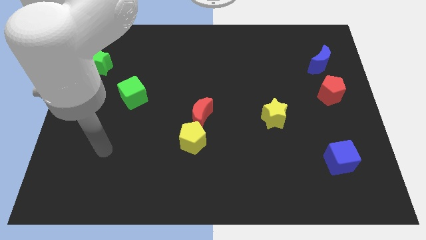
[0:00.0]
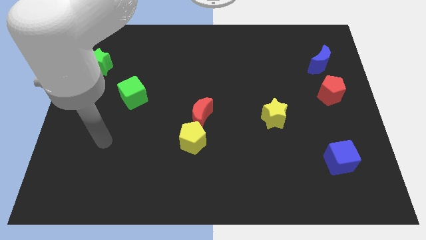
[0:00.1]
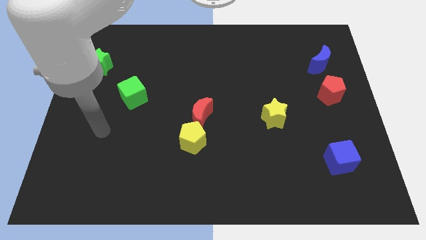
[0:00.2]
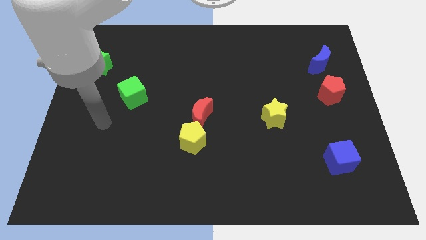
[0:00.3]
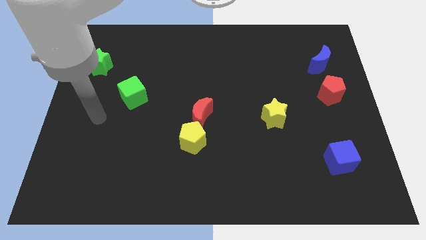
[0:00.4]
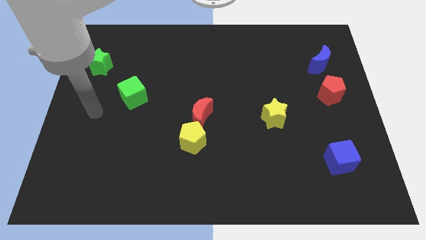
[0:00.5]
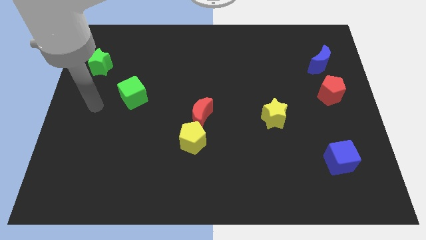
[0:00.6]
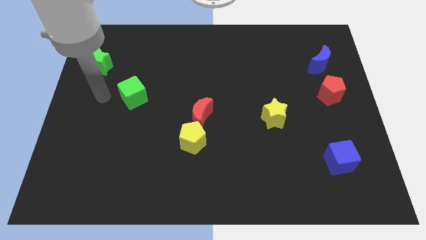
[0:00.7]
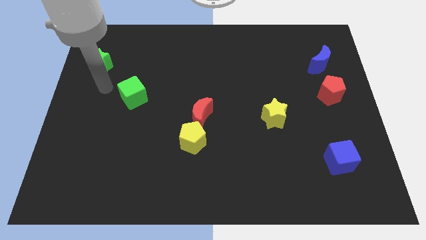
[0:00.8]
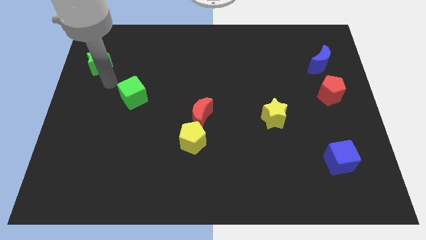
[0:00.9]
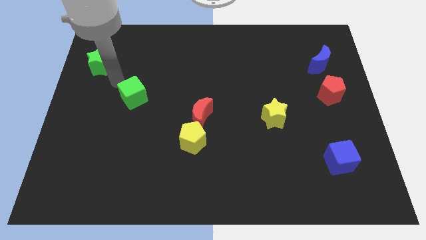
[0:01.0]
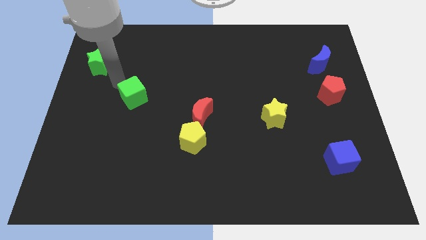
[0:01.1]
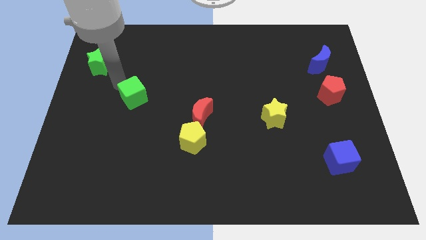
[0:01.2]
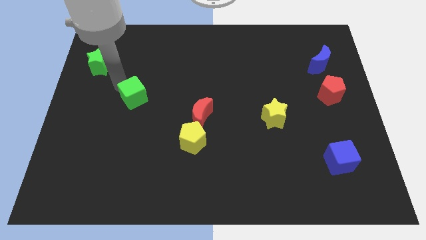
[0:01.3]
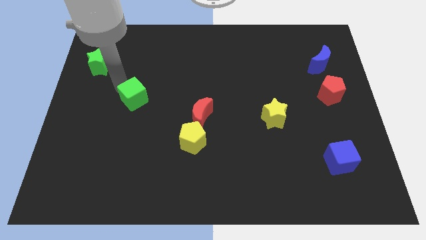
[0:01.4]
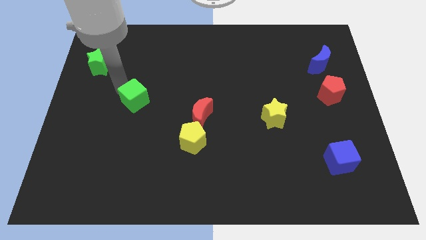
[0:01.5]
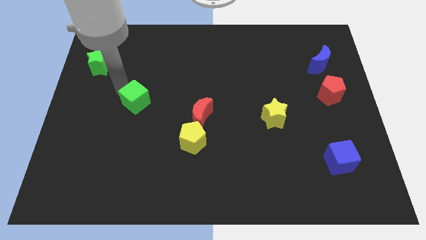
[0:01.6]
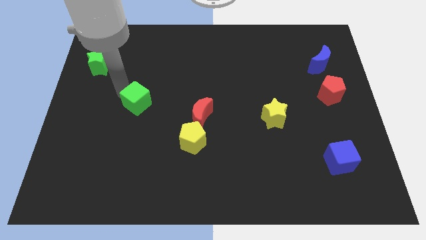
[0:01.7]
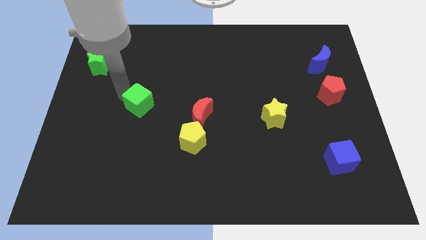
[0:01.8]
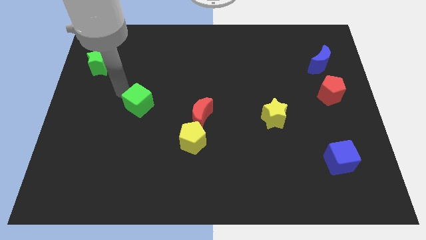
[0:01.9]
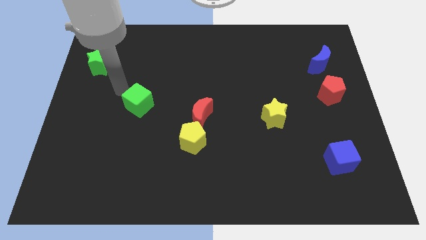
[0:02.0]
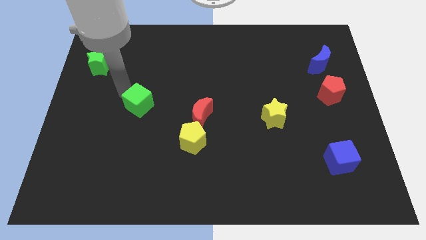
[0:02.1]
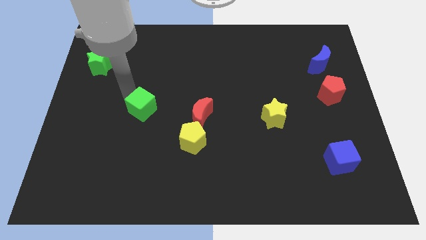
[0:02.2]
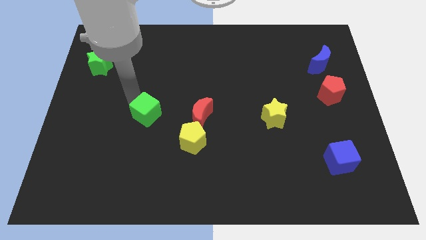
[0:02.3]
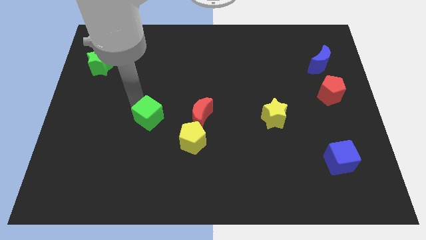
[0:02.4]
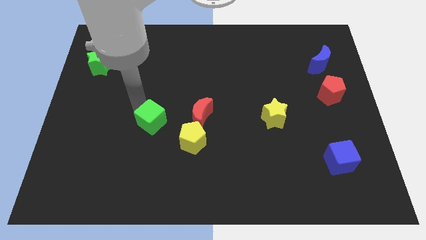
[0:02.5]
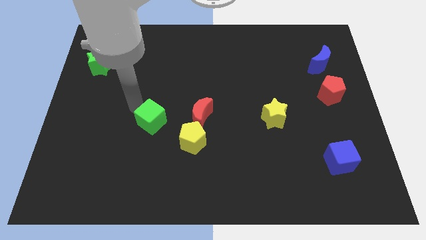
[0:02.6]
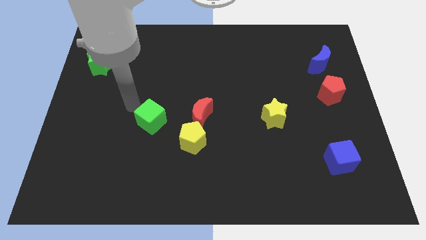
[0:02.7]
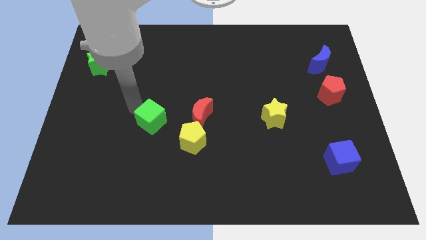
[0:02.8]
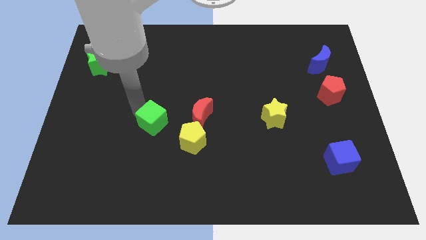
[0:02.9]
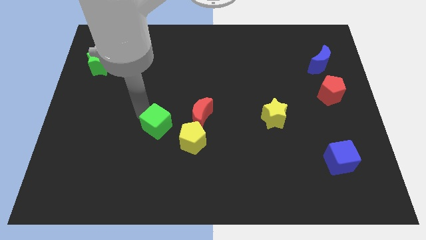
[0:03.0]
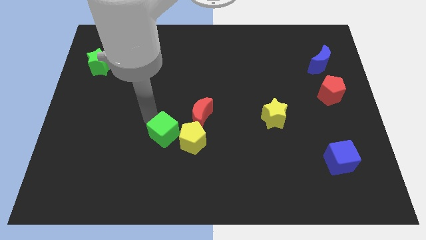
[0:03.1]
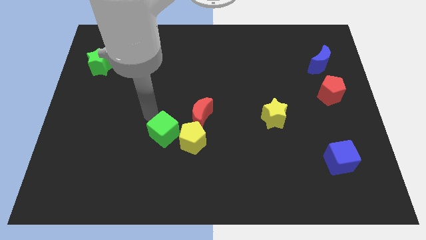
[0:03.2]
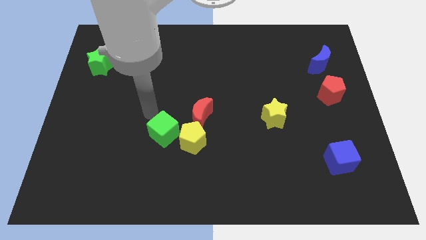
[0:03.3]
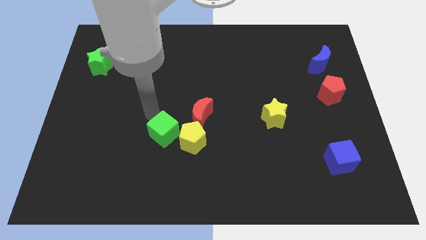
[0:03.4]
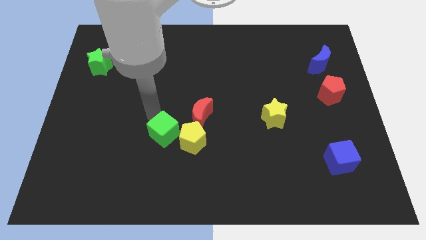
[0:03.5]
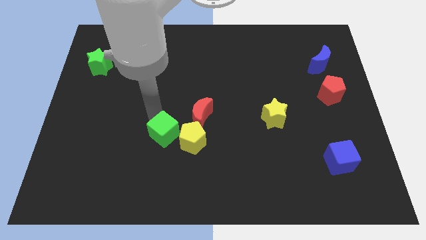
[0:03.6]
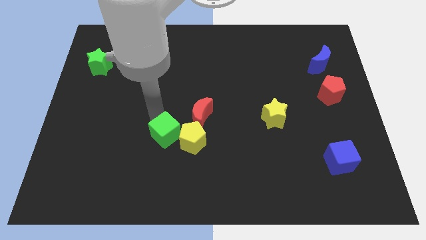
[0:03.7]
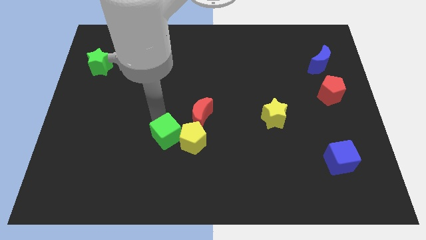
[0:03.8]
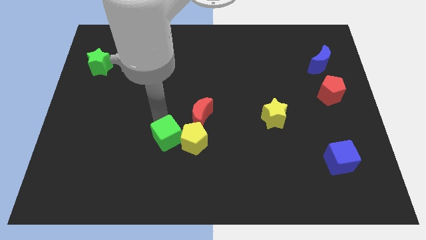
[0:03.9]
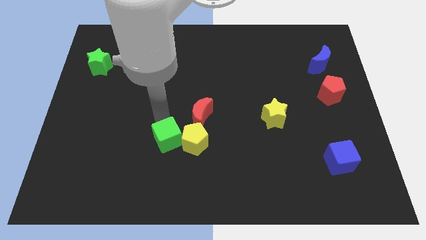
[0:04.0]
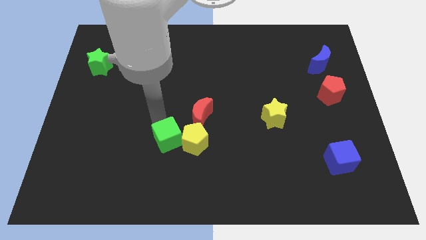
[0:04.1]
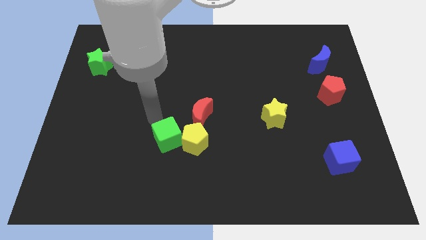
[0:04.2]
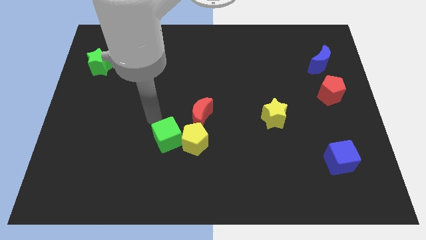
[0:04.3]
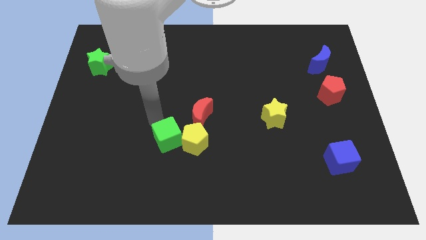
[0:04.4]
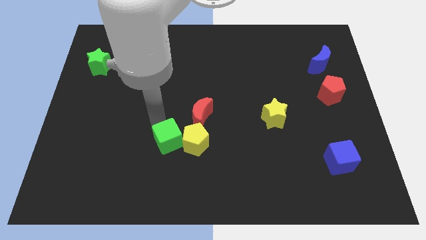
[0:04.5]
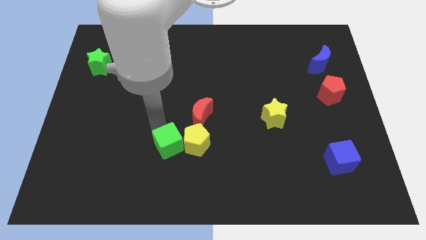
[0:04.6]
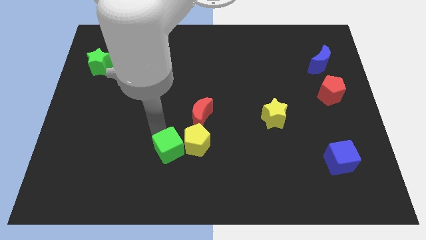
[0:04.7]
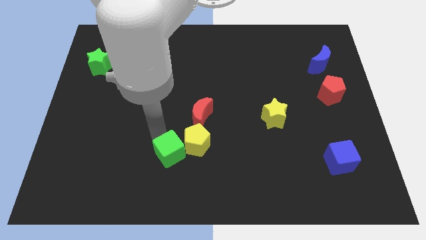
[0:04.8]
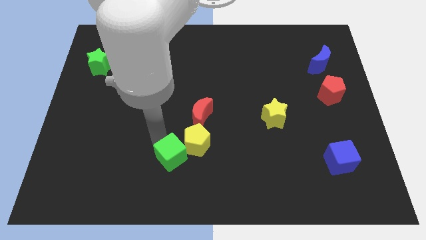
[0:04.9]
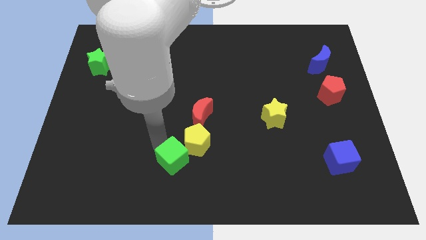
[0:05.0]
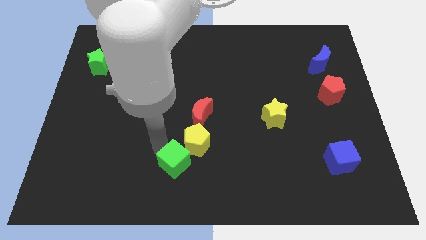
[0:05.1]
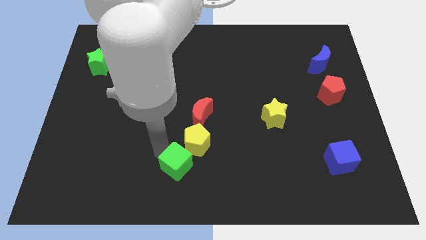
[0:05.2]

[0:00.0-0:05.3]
put the green cube to the bottom side of the red moon

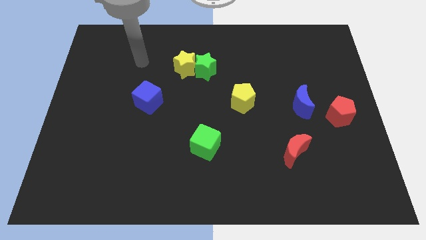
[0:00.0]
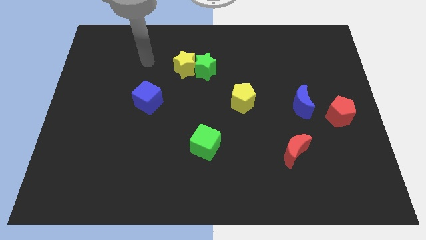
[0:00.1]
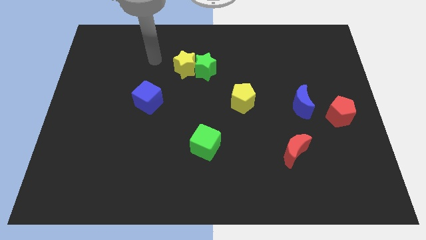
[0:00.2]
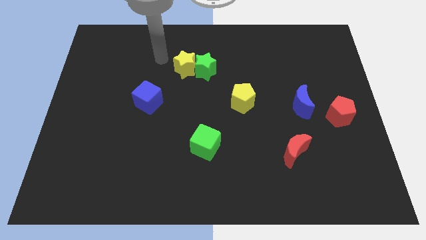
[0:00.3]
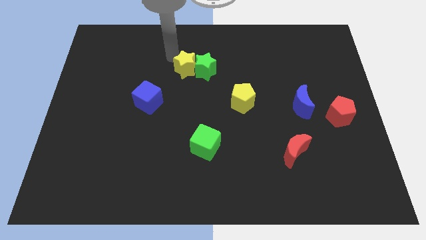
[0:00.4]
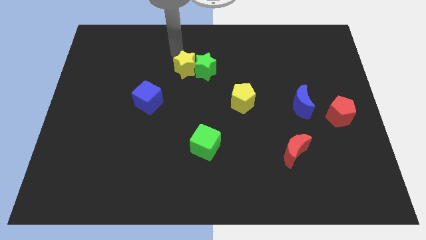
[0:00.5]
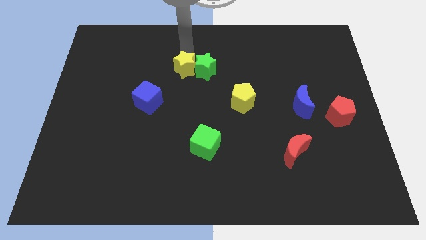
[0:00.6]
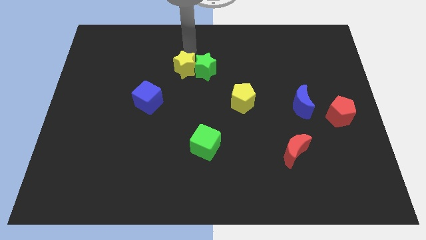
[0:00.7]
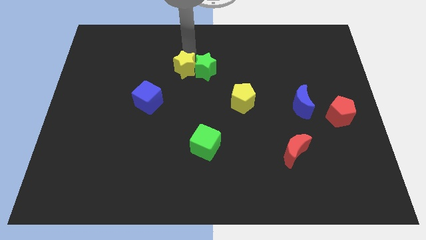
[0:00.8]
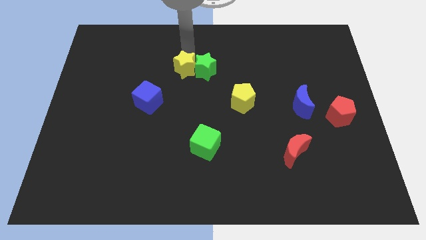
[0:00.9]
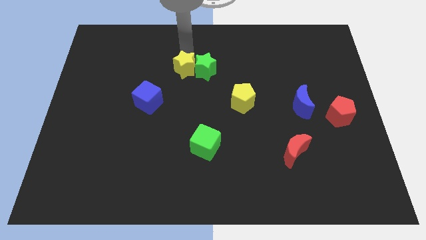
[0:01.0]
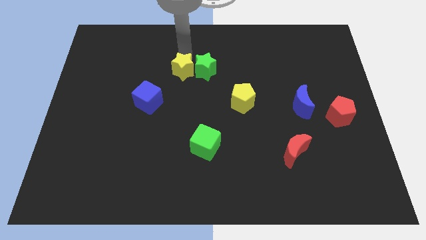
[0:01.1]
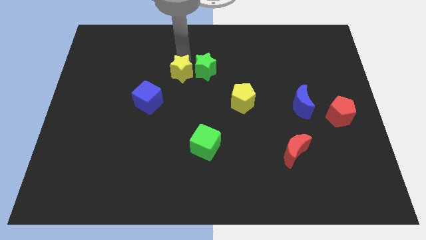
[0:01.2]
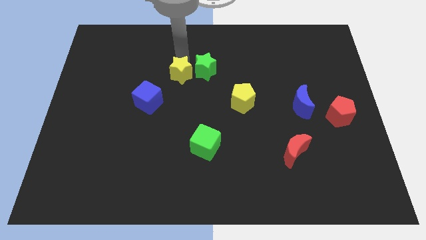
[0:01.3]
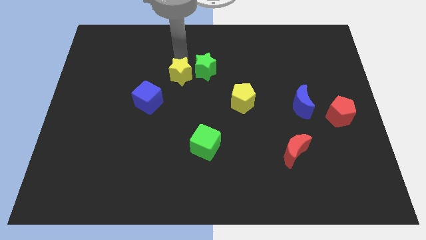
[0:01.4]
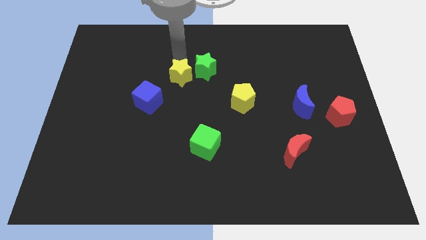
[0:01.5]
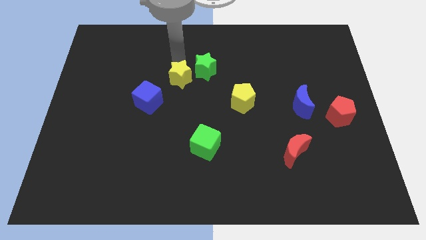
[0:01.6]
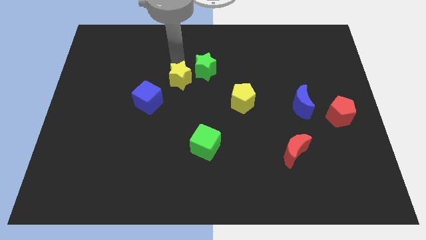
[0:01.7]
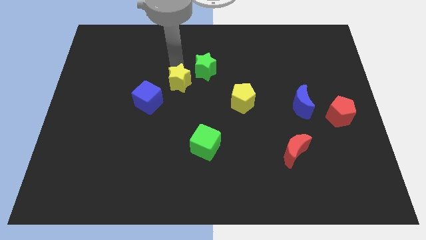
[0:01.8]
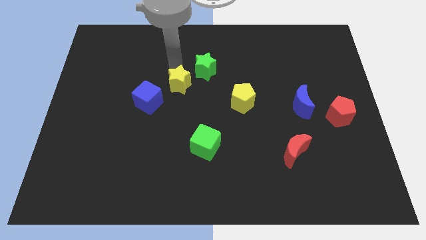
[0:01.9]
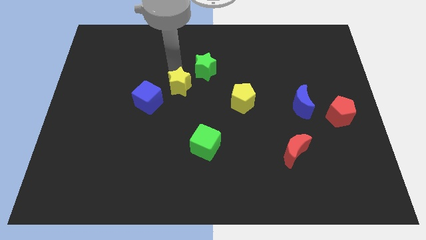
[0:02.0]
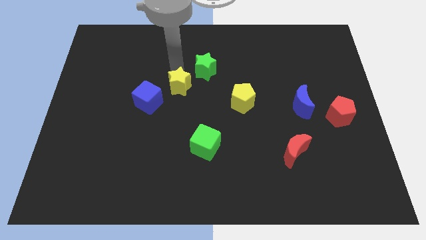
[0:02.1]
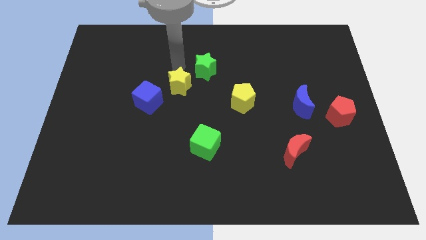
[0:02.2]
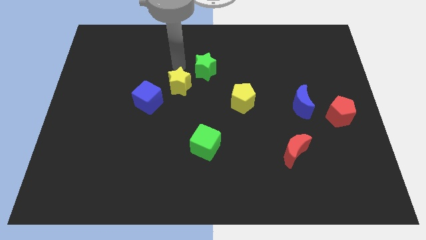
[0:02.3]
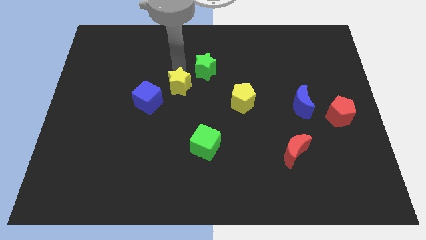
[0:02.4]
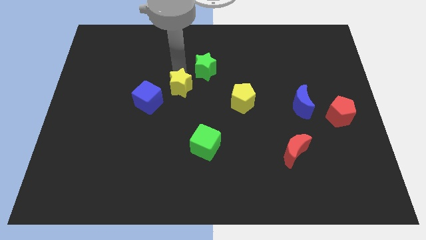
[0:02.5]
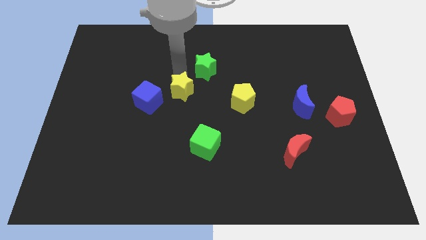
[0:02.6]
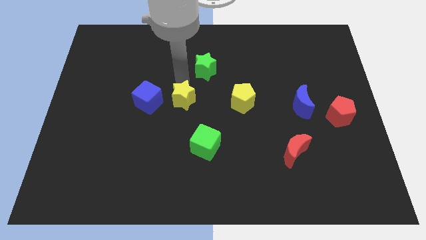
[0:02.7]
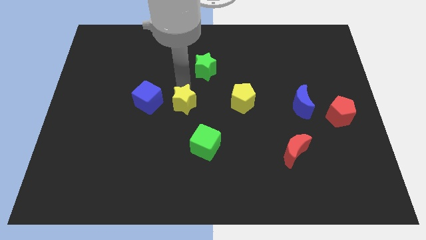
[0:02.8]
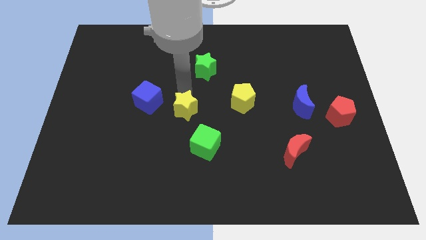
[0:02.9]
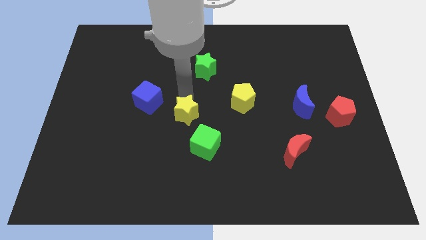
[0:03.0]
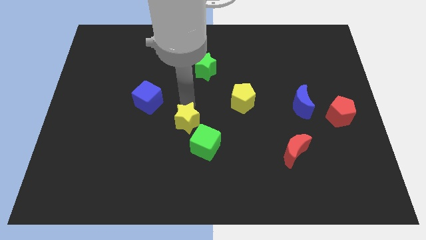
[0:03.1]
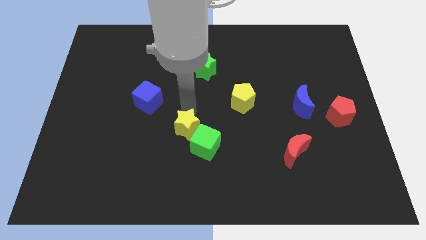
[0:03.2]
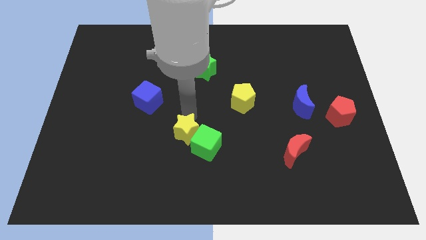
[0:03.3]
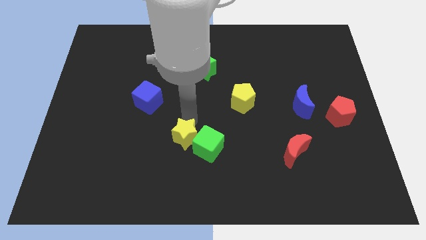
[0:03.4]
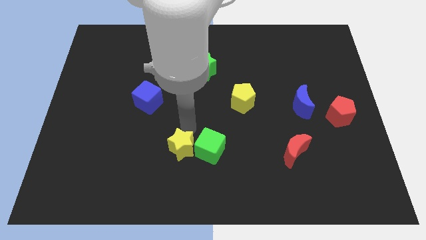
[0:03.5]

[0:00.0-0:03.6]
push the yellow star to the bottom left of the green cube
